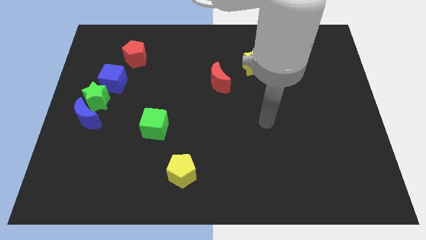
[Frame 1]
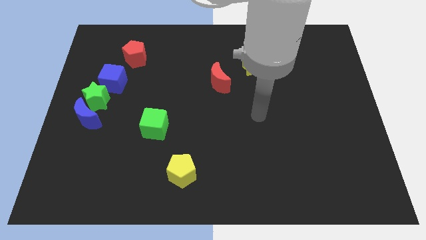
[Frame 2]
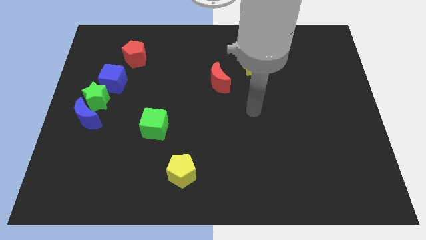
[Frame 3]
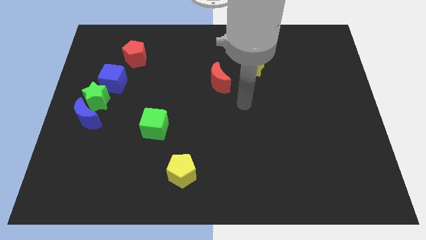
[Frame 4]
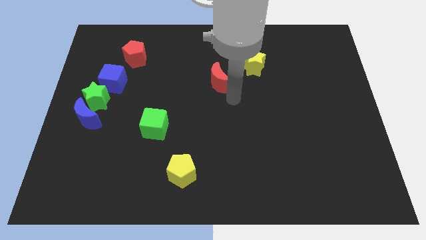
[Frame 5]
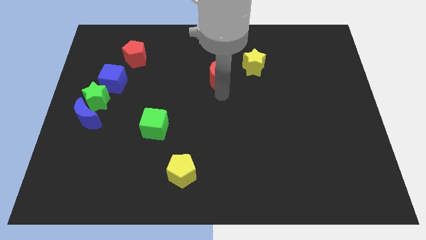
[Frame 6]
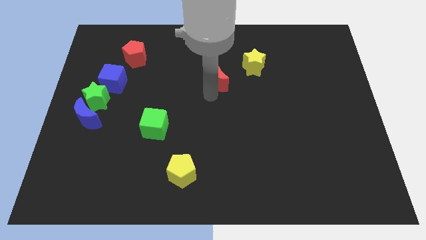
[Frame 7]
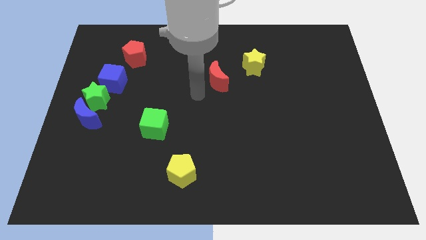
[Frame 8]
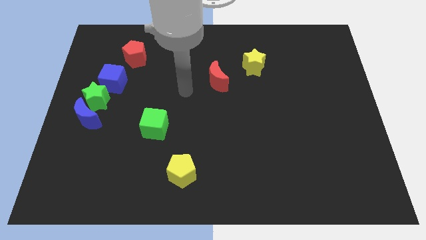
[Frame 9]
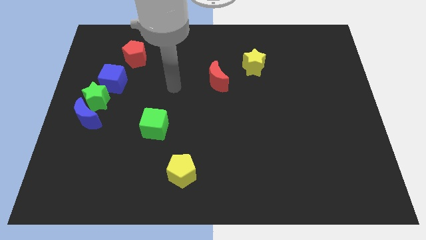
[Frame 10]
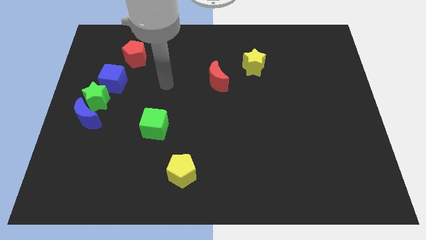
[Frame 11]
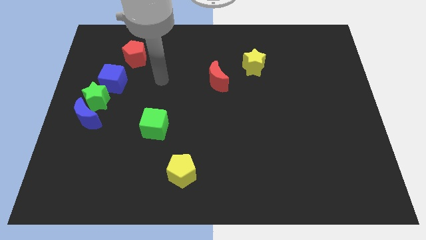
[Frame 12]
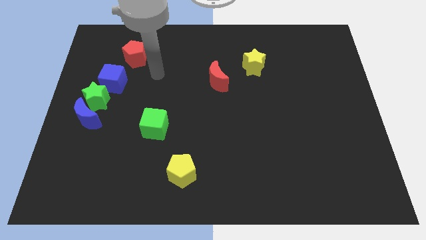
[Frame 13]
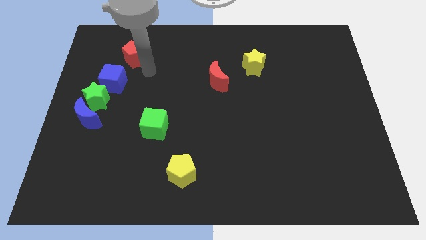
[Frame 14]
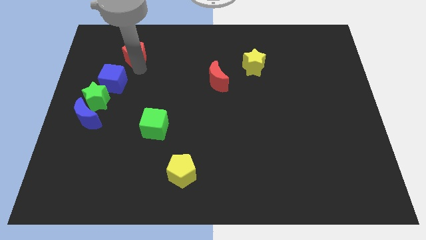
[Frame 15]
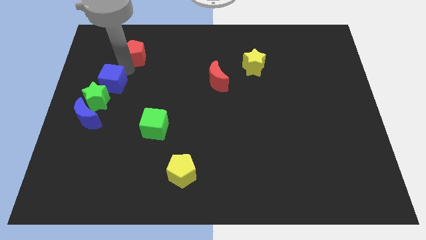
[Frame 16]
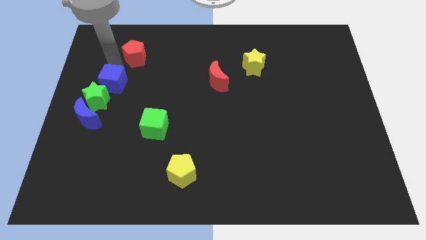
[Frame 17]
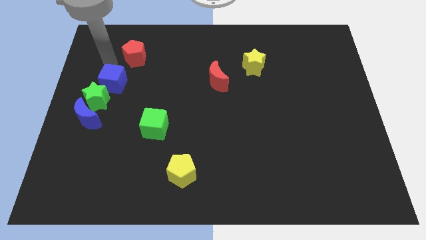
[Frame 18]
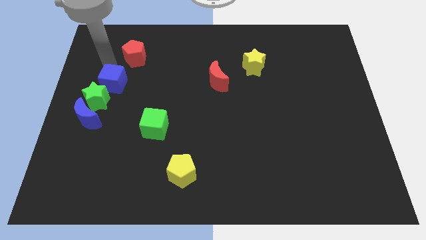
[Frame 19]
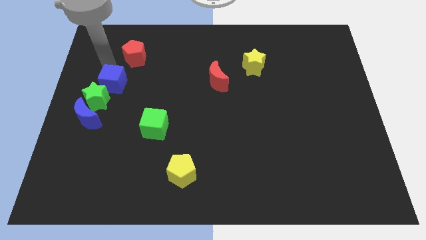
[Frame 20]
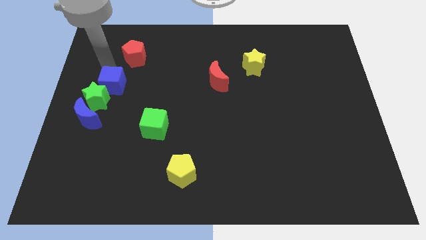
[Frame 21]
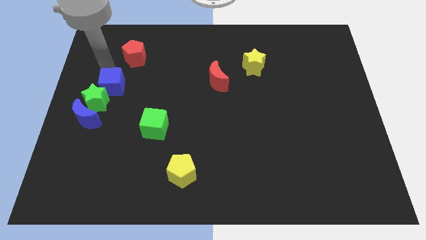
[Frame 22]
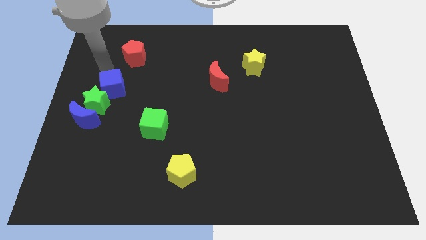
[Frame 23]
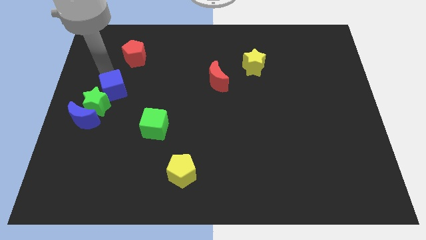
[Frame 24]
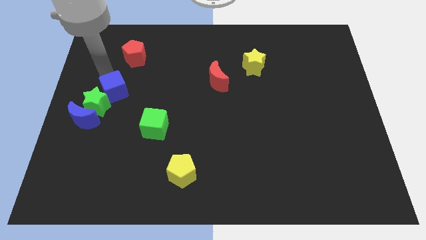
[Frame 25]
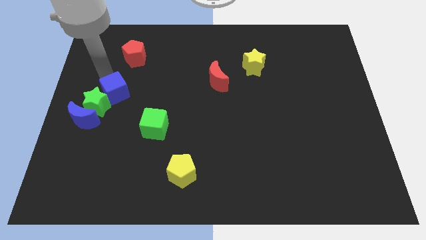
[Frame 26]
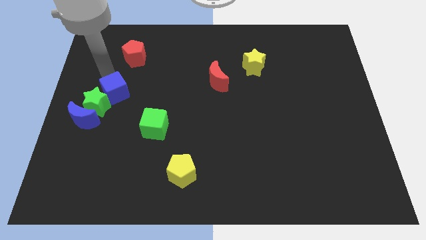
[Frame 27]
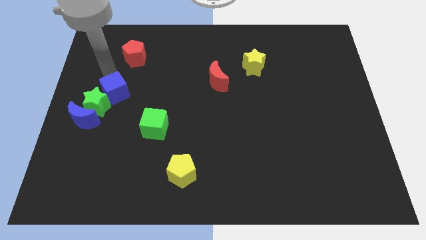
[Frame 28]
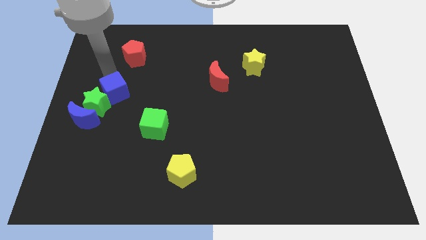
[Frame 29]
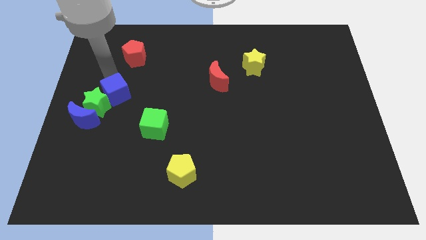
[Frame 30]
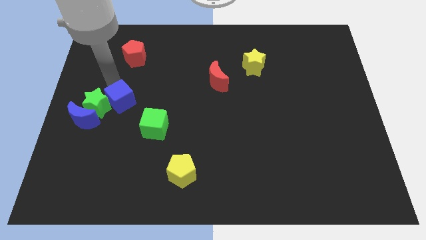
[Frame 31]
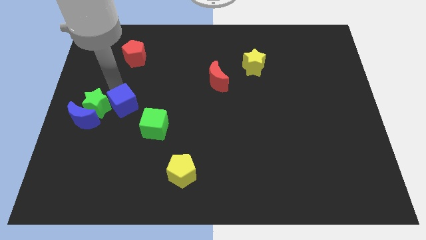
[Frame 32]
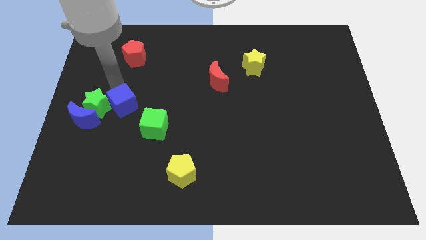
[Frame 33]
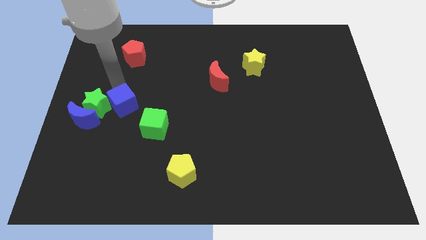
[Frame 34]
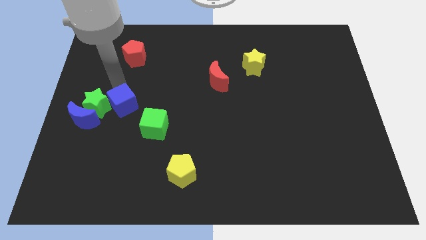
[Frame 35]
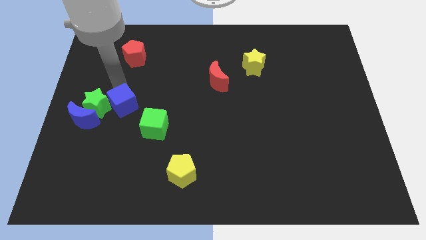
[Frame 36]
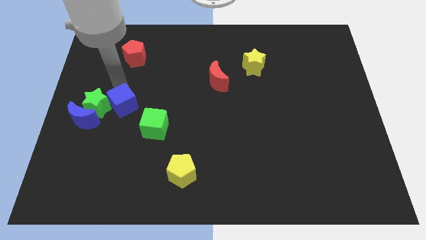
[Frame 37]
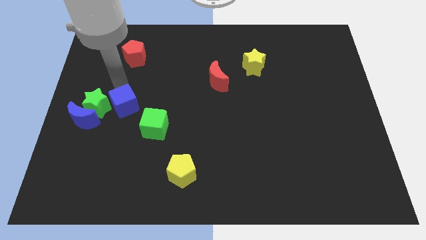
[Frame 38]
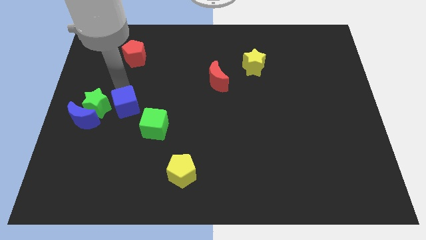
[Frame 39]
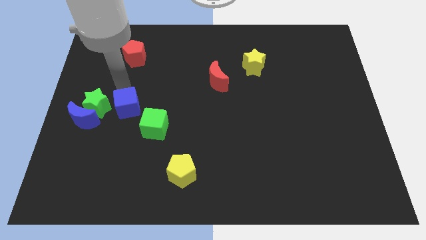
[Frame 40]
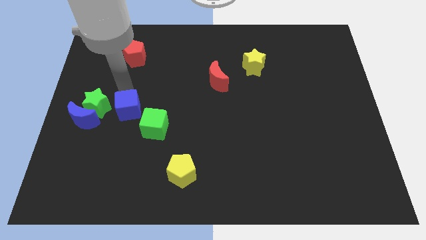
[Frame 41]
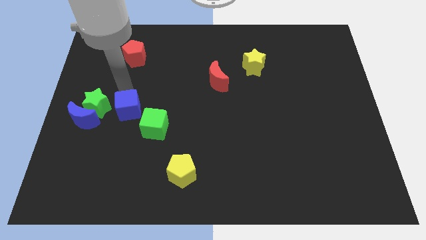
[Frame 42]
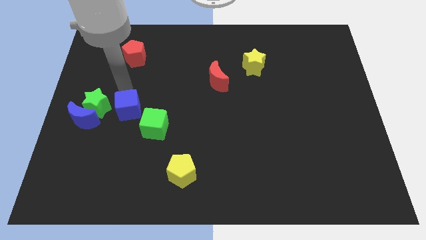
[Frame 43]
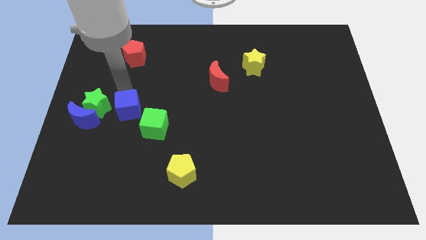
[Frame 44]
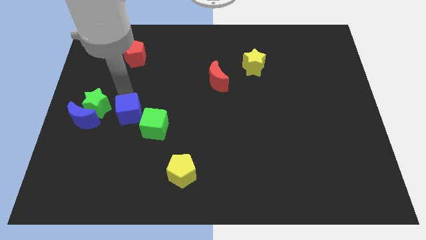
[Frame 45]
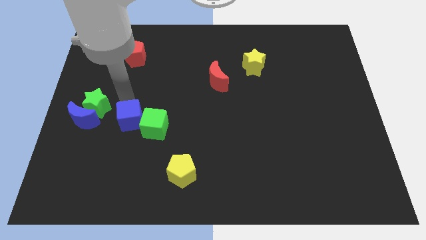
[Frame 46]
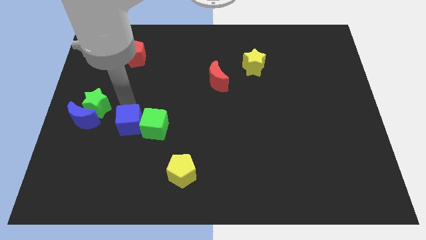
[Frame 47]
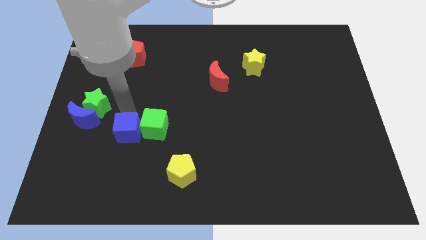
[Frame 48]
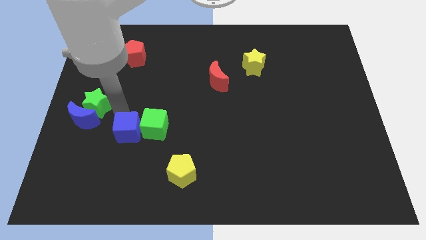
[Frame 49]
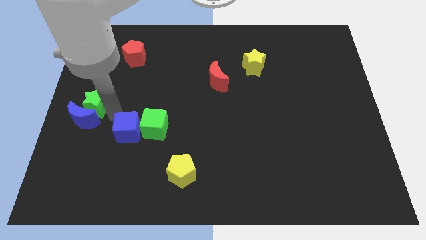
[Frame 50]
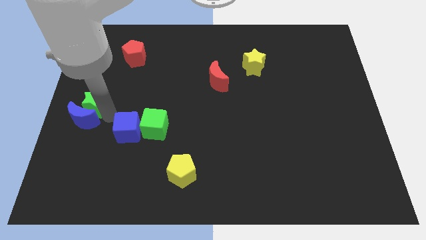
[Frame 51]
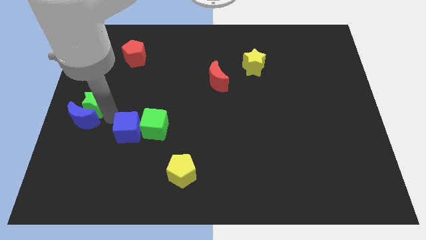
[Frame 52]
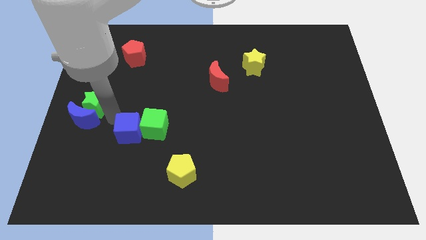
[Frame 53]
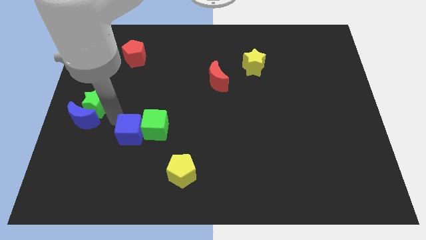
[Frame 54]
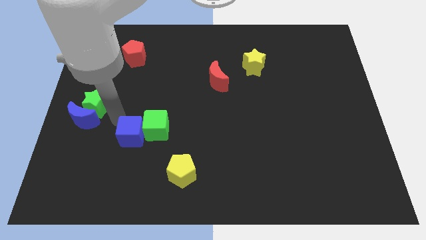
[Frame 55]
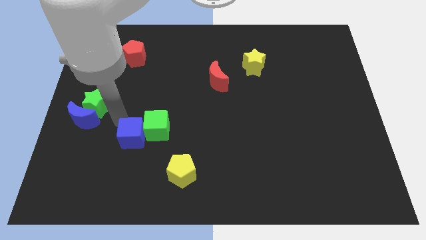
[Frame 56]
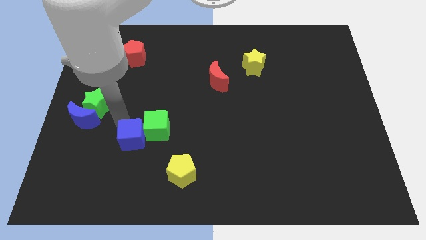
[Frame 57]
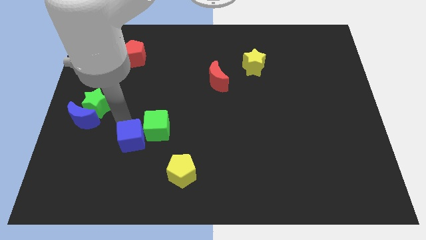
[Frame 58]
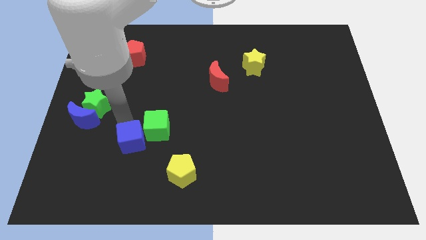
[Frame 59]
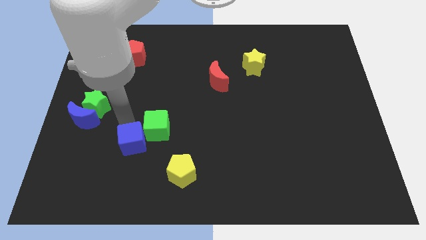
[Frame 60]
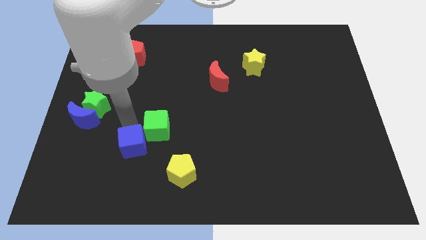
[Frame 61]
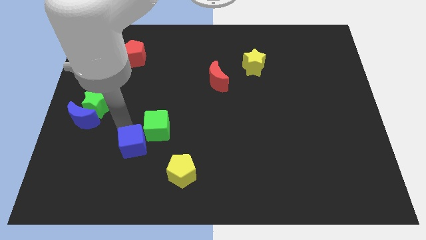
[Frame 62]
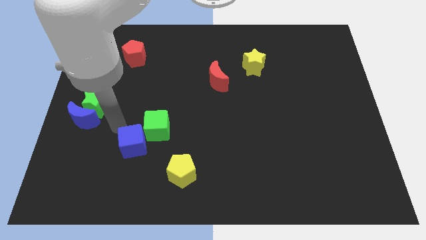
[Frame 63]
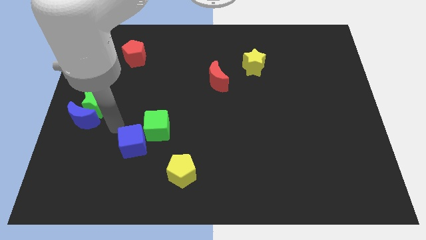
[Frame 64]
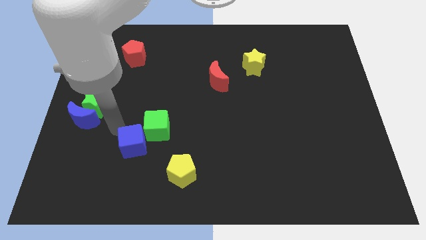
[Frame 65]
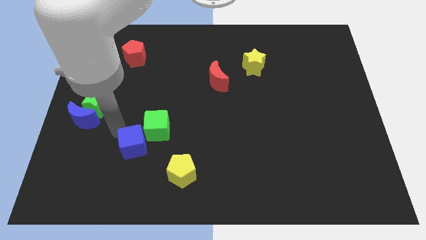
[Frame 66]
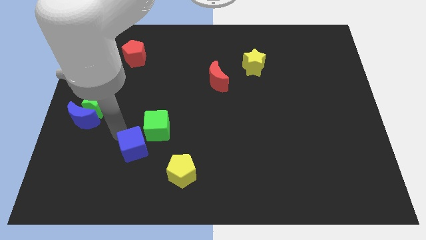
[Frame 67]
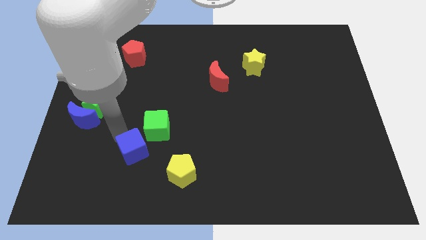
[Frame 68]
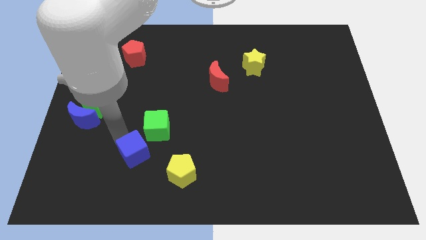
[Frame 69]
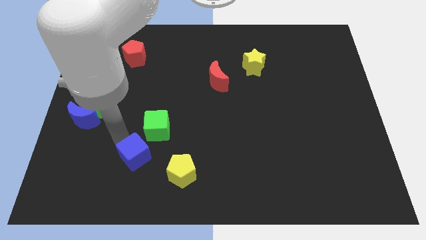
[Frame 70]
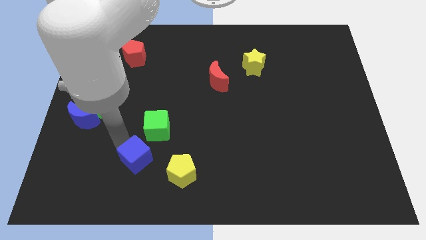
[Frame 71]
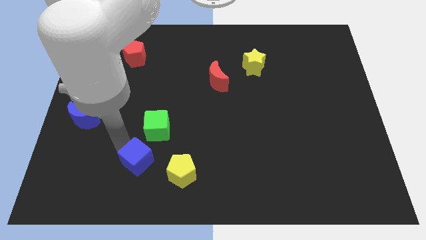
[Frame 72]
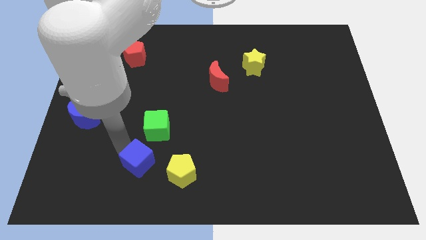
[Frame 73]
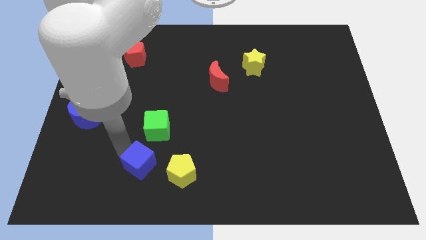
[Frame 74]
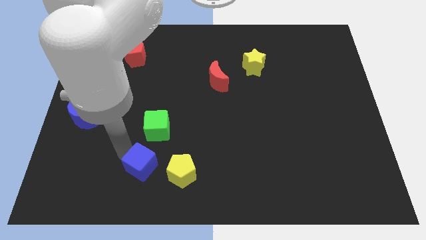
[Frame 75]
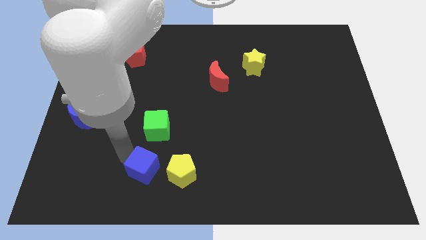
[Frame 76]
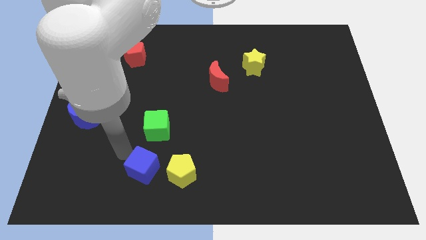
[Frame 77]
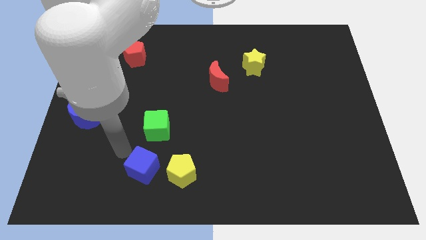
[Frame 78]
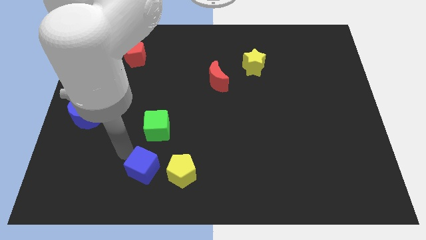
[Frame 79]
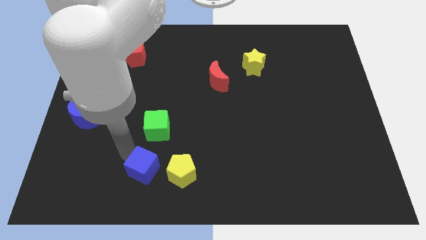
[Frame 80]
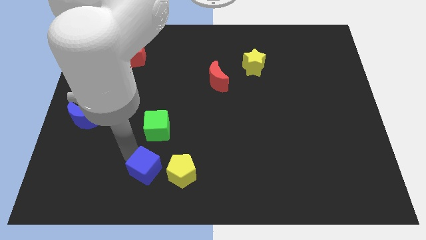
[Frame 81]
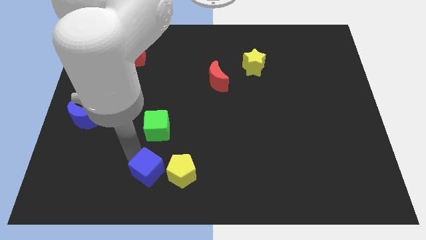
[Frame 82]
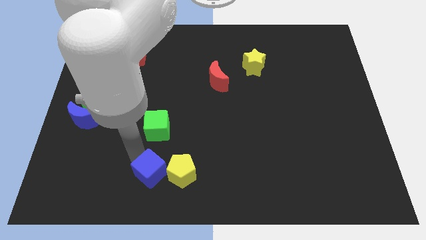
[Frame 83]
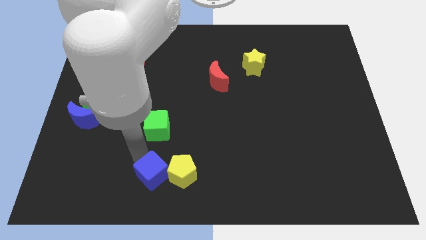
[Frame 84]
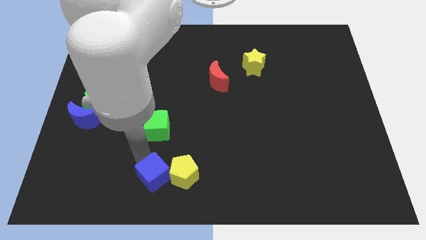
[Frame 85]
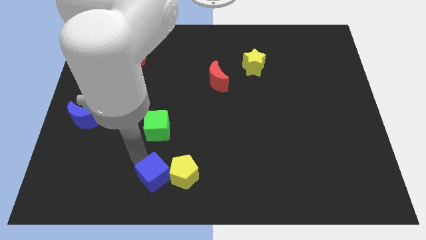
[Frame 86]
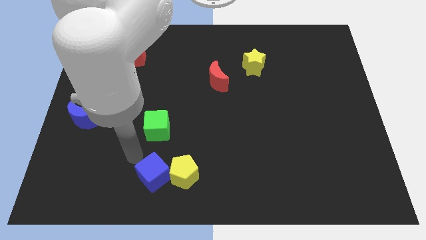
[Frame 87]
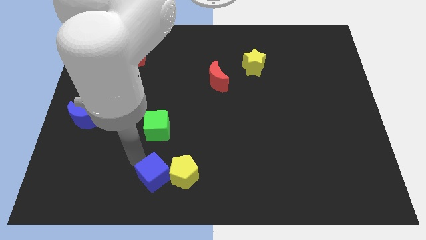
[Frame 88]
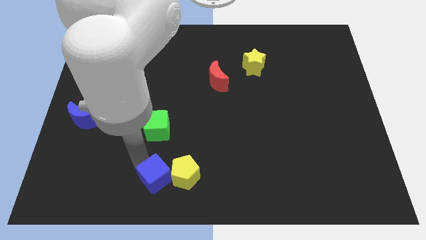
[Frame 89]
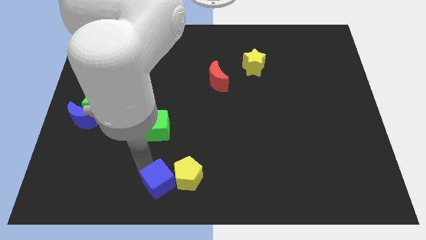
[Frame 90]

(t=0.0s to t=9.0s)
push the blue cube to the bottom
